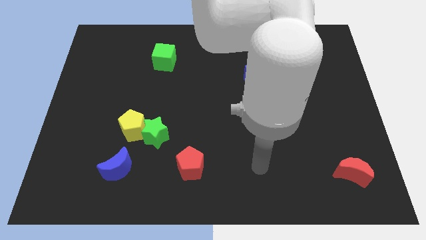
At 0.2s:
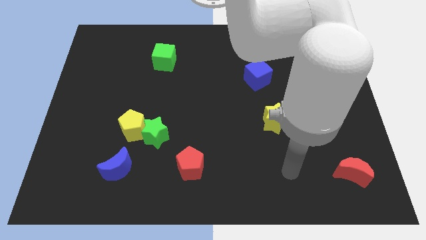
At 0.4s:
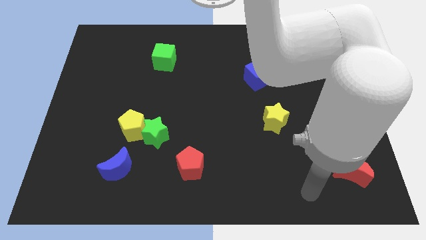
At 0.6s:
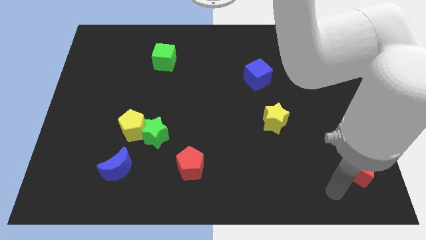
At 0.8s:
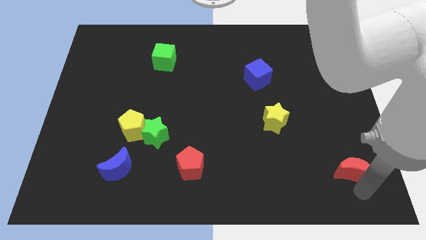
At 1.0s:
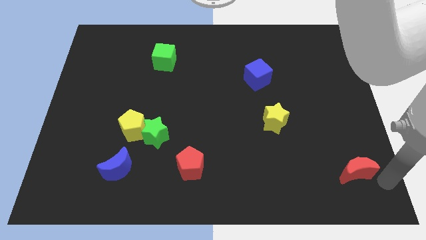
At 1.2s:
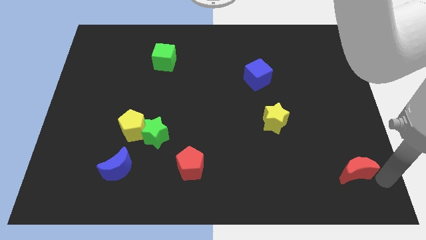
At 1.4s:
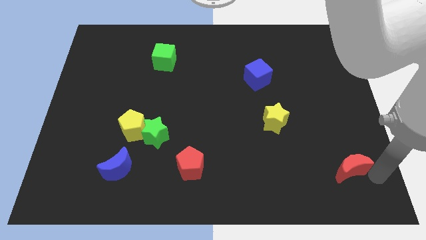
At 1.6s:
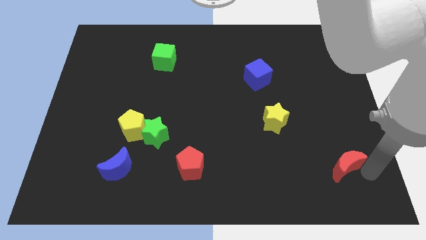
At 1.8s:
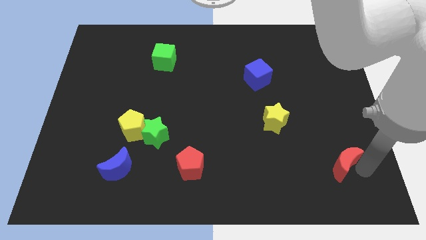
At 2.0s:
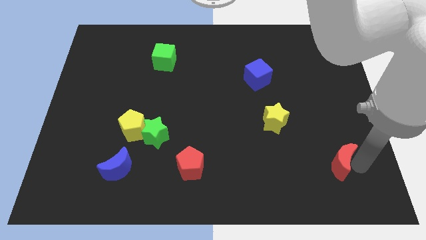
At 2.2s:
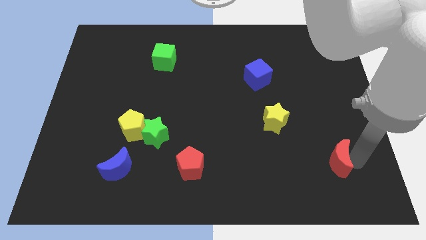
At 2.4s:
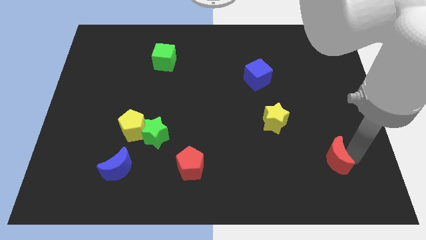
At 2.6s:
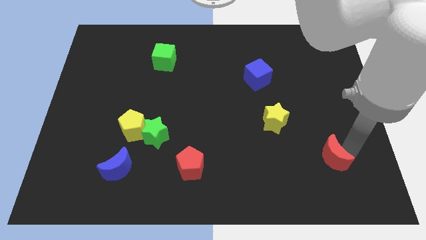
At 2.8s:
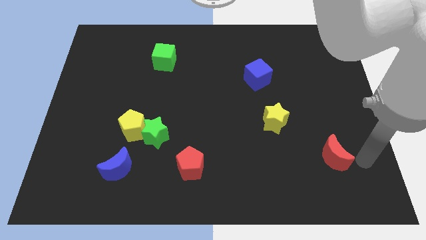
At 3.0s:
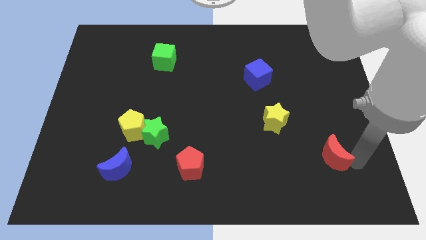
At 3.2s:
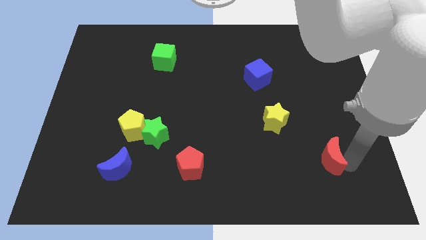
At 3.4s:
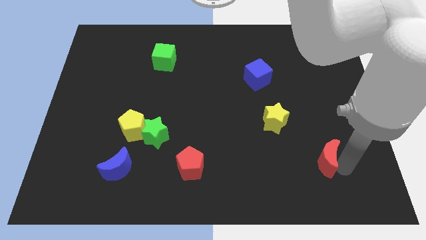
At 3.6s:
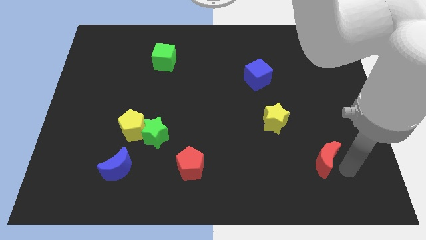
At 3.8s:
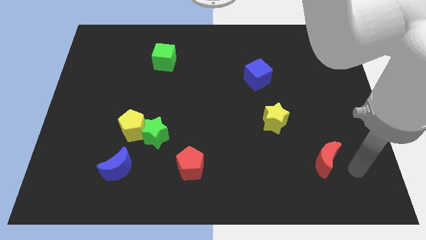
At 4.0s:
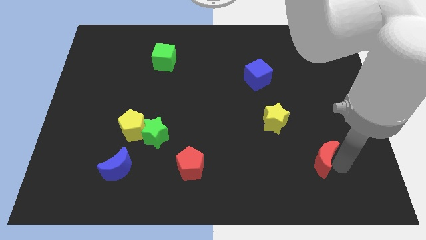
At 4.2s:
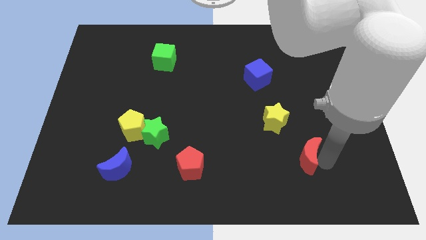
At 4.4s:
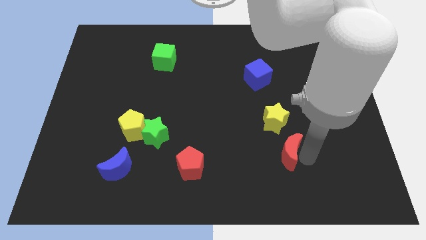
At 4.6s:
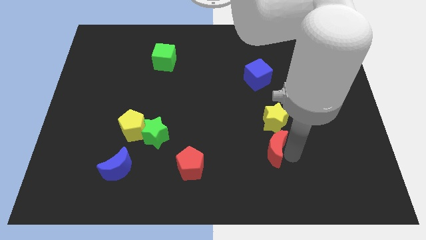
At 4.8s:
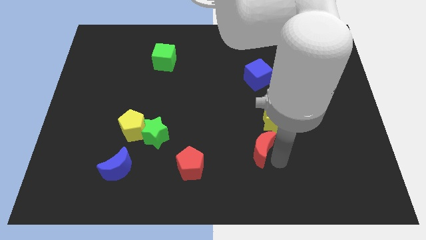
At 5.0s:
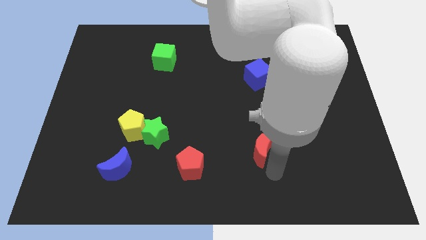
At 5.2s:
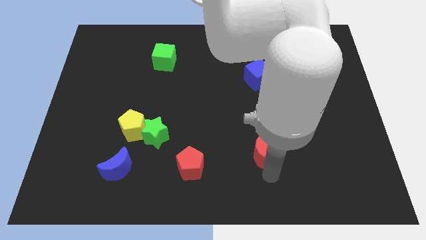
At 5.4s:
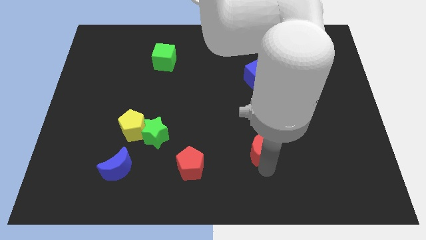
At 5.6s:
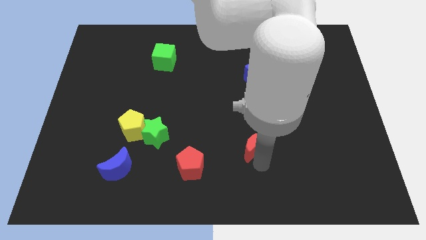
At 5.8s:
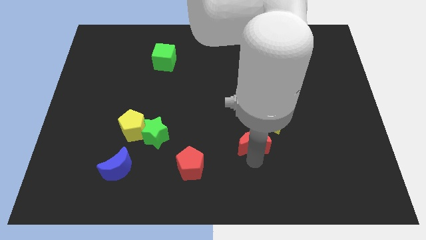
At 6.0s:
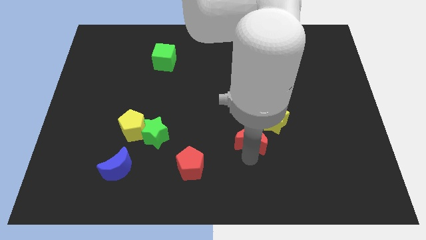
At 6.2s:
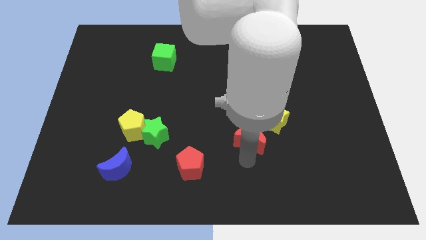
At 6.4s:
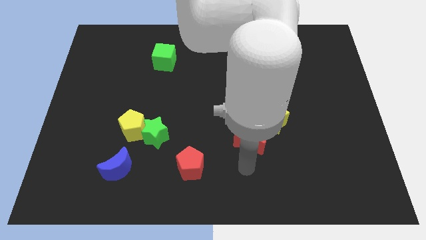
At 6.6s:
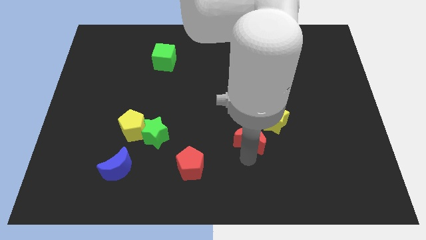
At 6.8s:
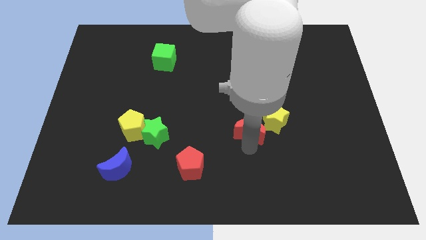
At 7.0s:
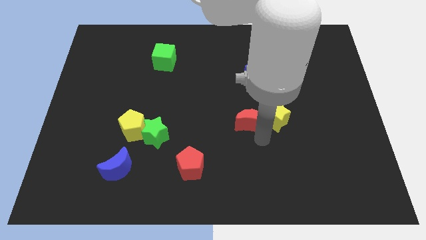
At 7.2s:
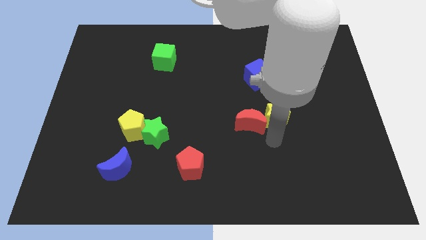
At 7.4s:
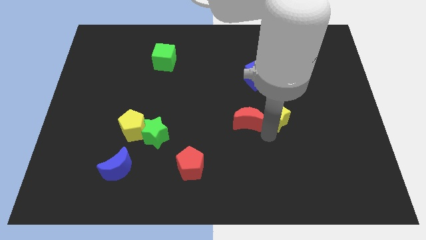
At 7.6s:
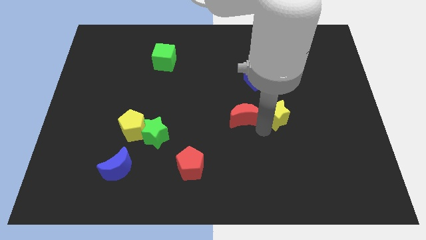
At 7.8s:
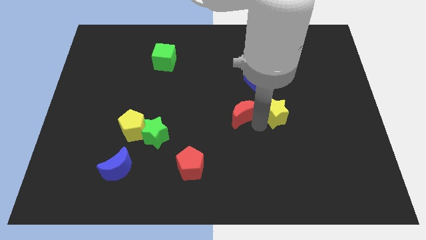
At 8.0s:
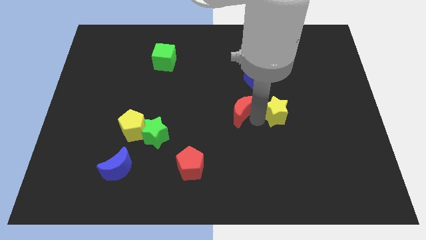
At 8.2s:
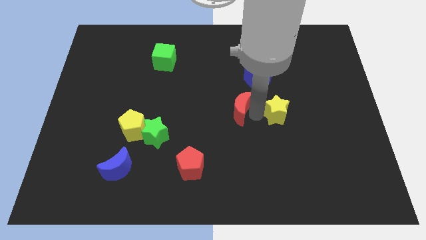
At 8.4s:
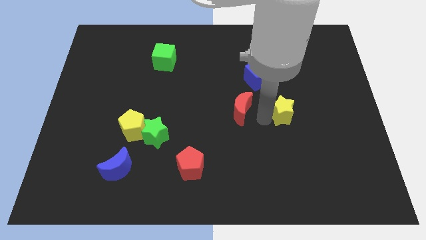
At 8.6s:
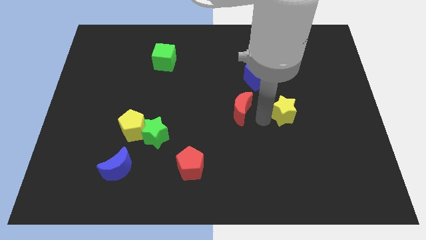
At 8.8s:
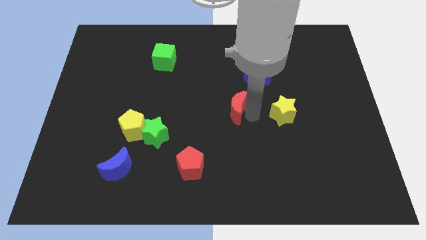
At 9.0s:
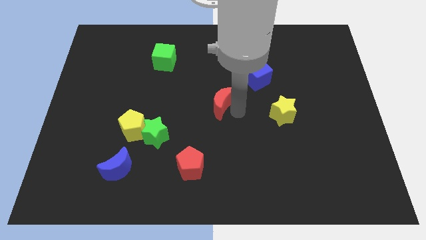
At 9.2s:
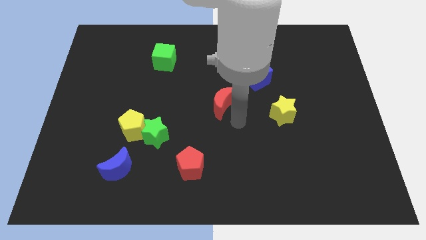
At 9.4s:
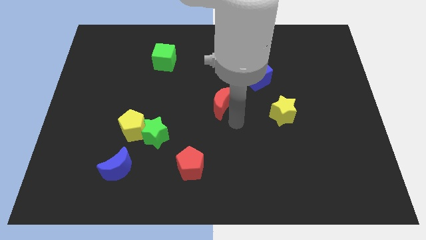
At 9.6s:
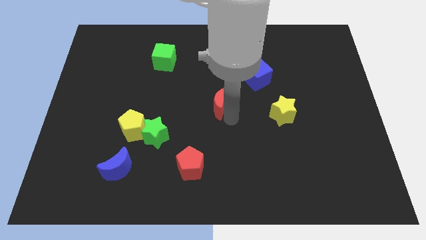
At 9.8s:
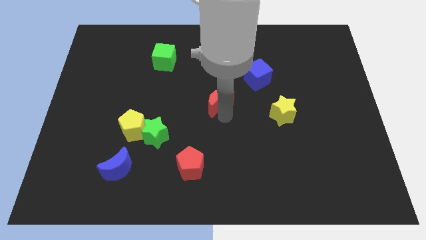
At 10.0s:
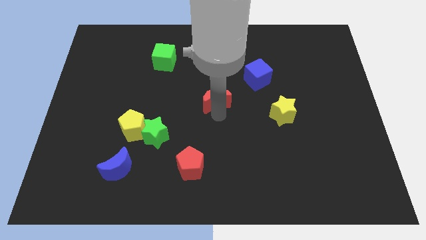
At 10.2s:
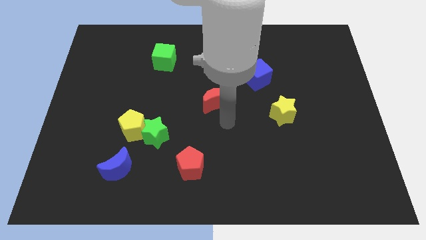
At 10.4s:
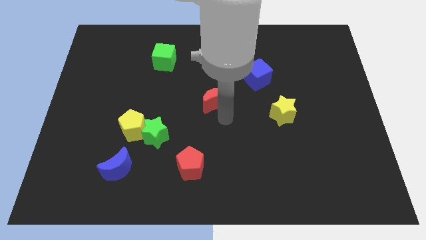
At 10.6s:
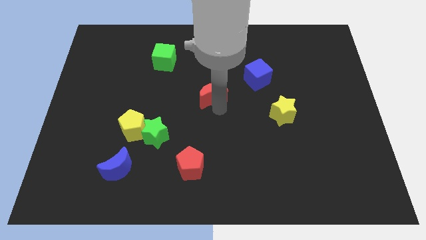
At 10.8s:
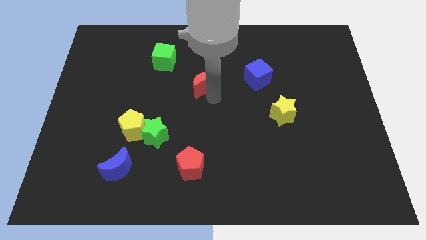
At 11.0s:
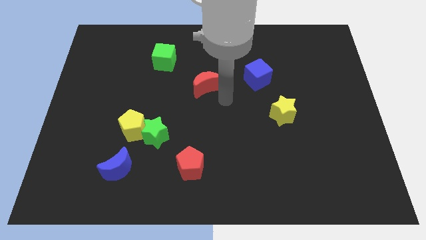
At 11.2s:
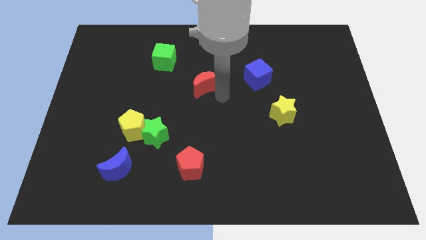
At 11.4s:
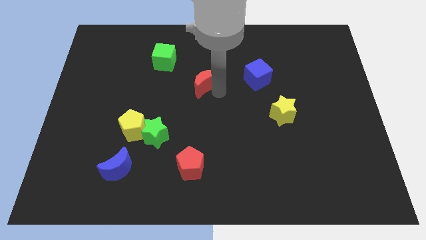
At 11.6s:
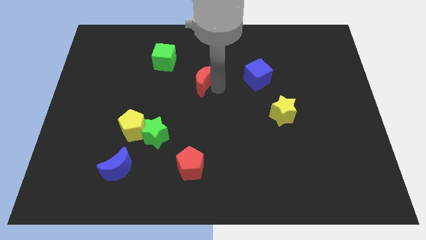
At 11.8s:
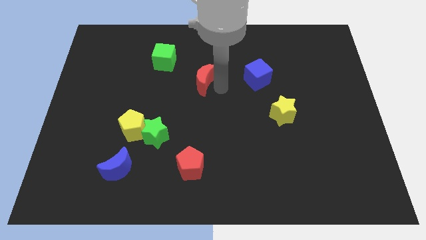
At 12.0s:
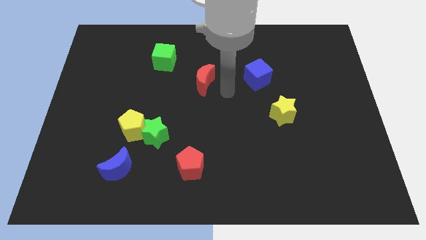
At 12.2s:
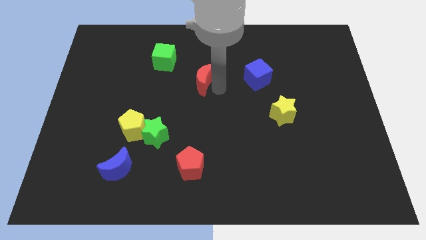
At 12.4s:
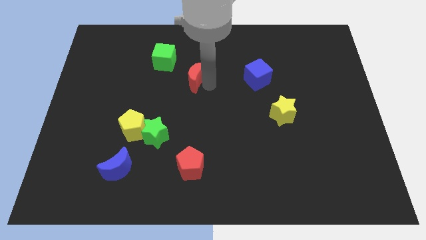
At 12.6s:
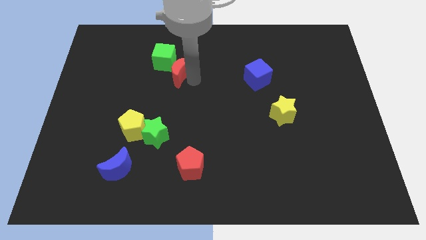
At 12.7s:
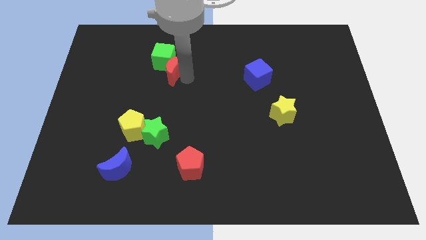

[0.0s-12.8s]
push the red moon towards the green cube

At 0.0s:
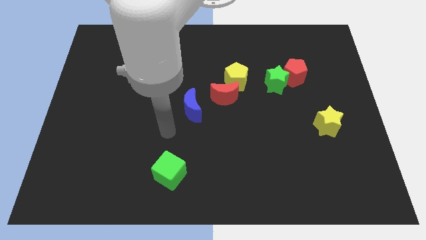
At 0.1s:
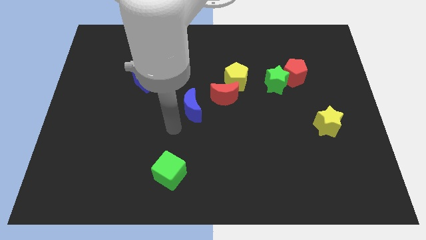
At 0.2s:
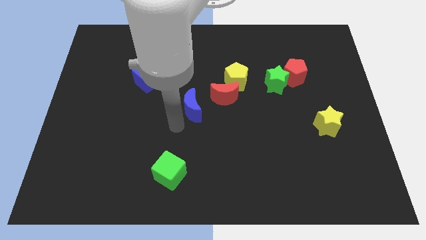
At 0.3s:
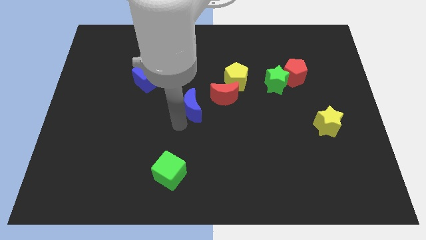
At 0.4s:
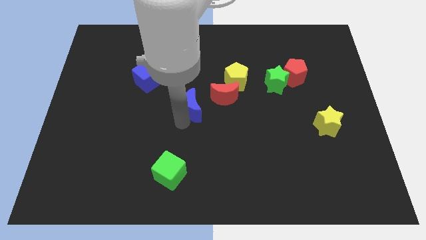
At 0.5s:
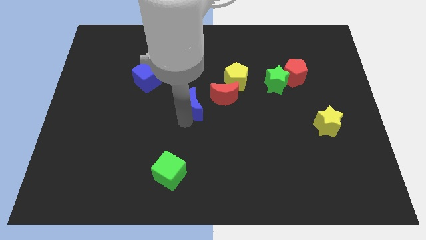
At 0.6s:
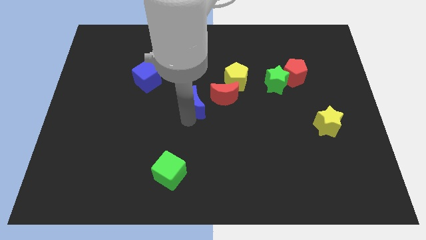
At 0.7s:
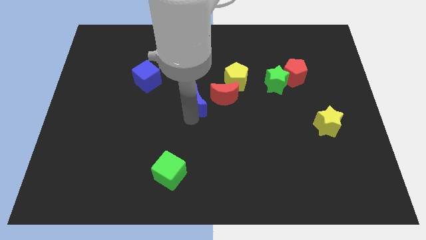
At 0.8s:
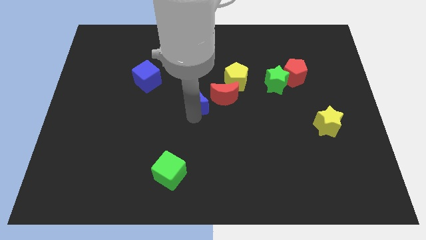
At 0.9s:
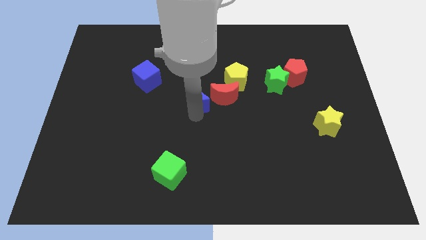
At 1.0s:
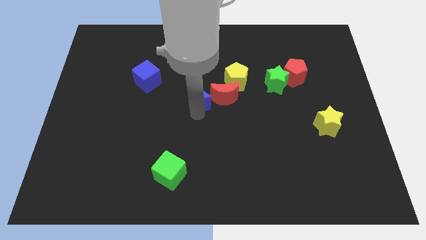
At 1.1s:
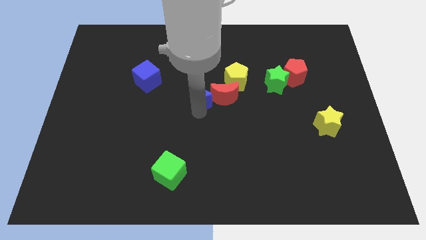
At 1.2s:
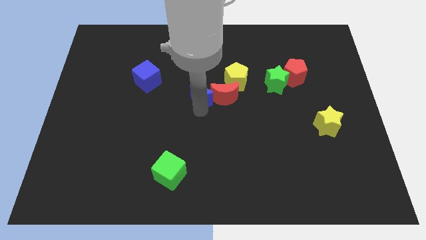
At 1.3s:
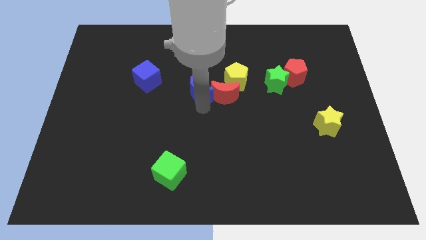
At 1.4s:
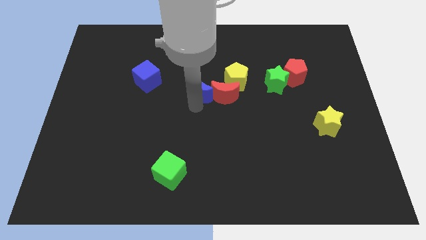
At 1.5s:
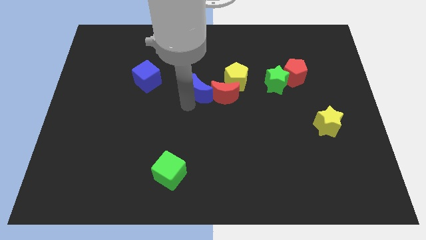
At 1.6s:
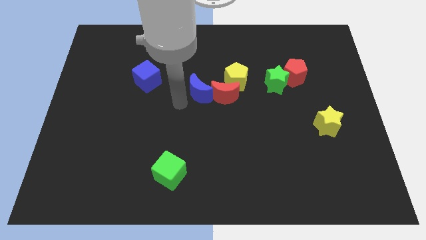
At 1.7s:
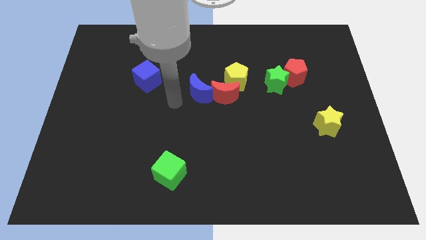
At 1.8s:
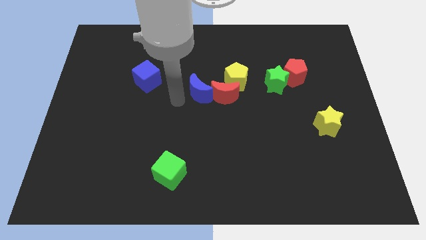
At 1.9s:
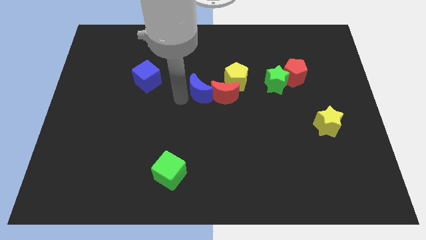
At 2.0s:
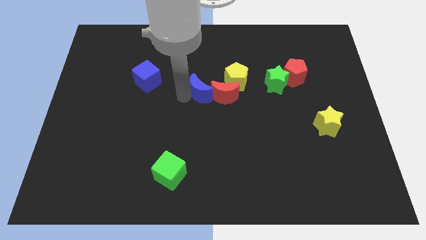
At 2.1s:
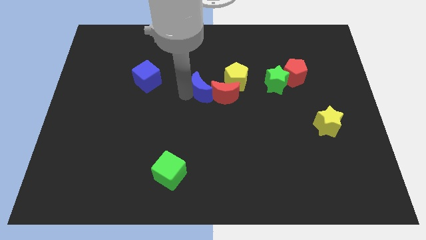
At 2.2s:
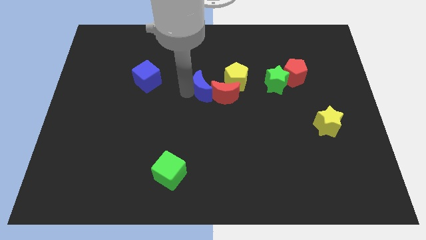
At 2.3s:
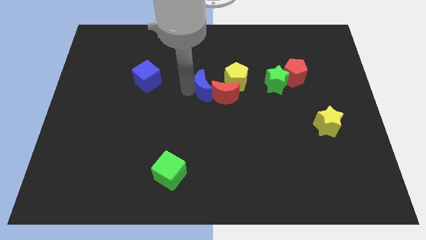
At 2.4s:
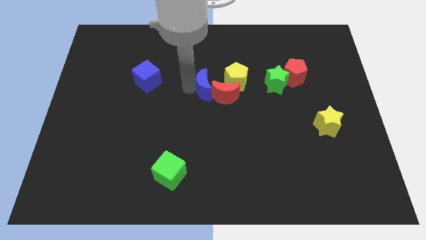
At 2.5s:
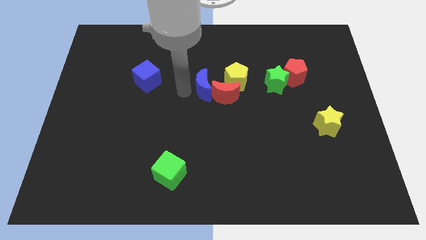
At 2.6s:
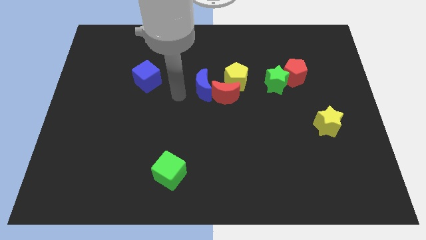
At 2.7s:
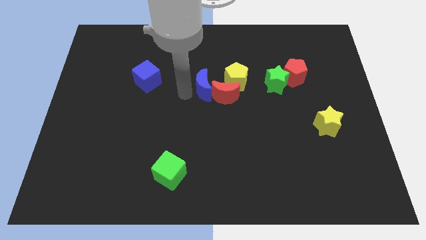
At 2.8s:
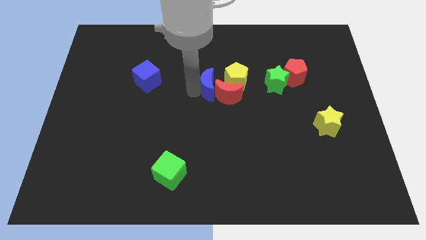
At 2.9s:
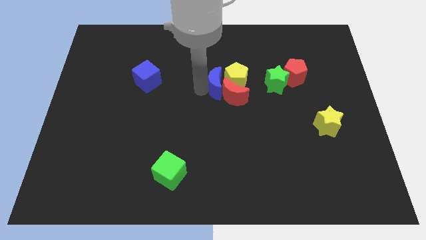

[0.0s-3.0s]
slide the blue moon close to the yellow pentagon
